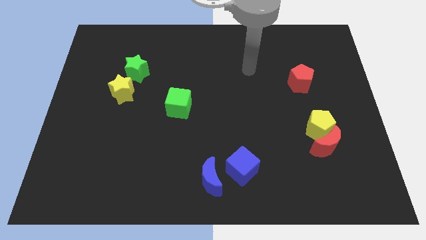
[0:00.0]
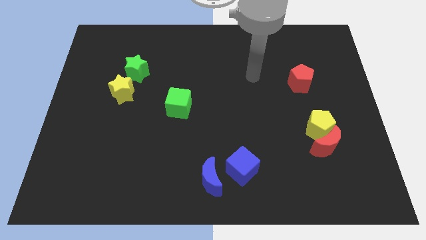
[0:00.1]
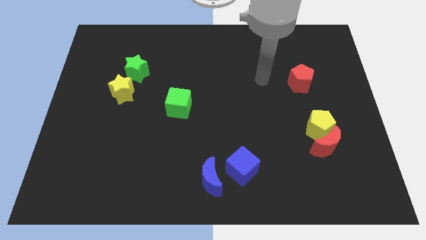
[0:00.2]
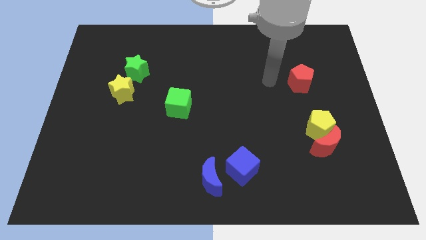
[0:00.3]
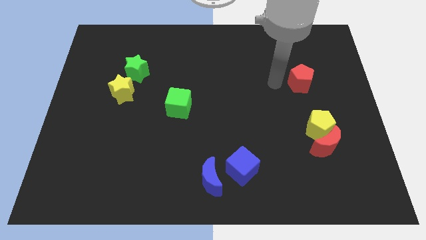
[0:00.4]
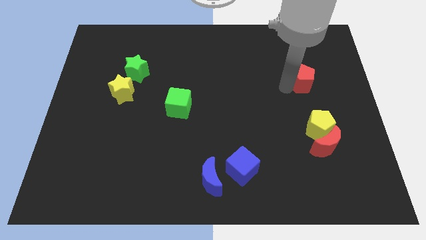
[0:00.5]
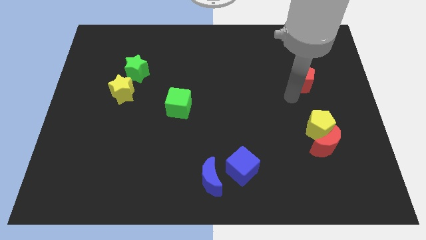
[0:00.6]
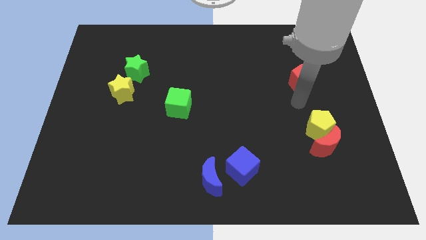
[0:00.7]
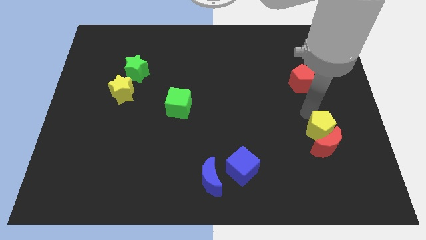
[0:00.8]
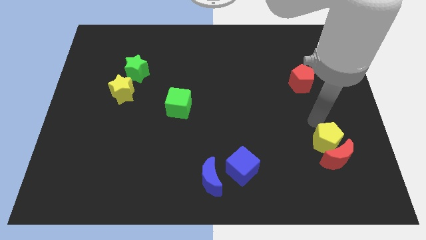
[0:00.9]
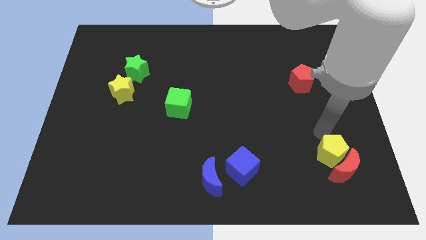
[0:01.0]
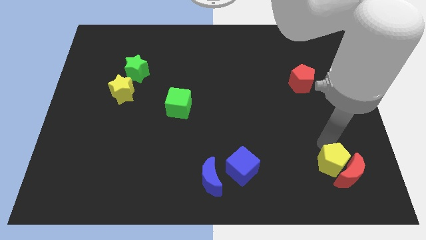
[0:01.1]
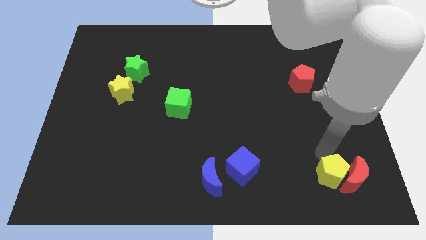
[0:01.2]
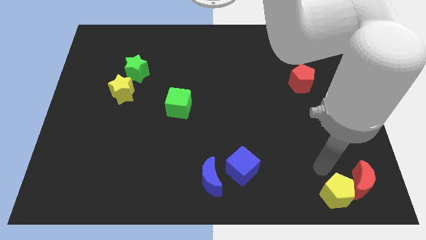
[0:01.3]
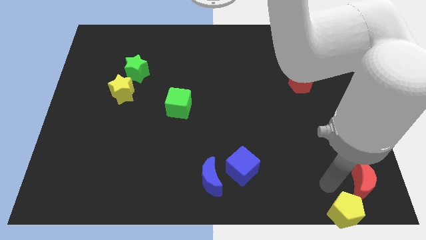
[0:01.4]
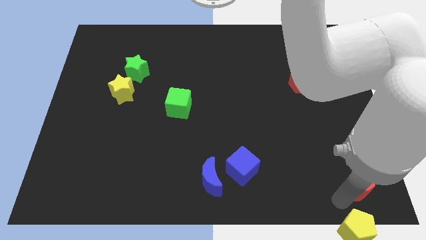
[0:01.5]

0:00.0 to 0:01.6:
separate the red moon from the yellow pentagon

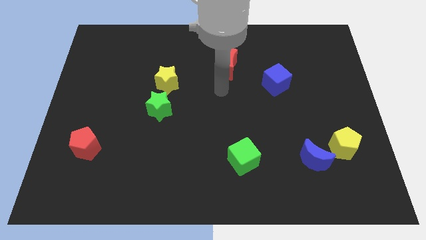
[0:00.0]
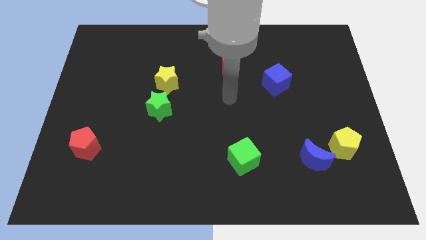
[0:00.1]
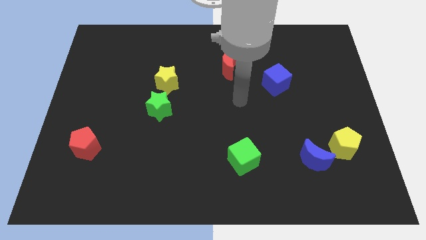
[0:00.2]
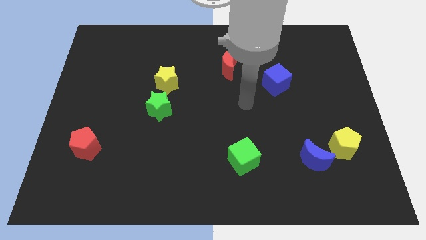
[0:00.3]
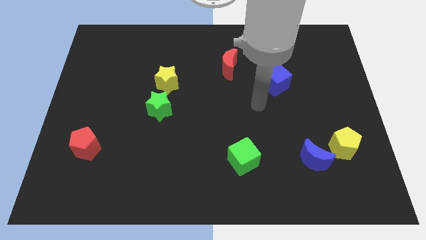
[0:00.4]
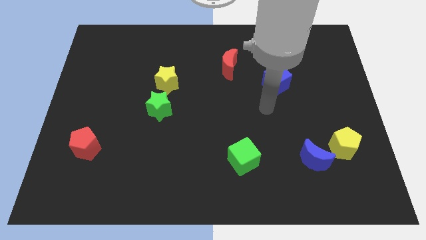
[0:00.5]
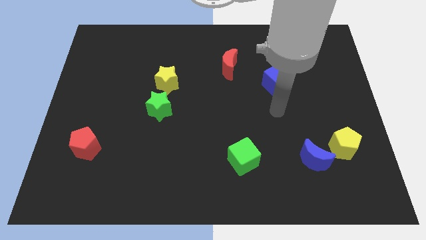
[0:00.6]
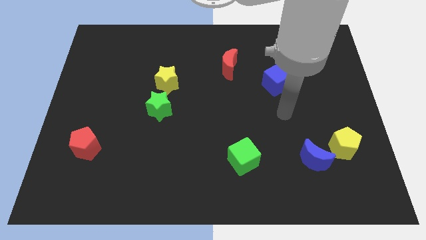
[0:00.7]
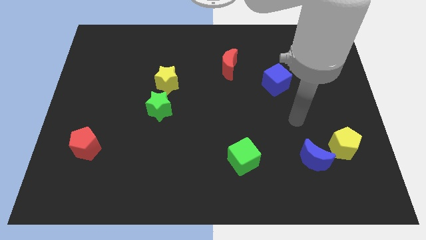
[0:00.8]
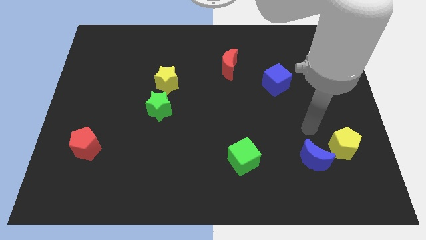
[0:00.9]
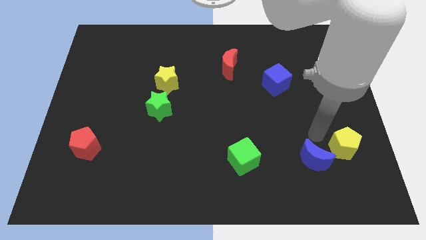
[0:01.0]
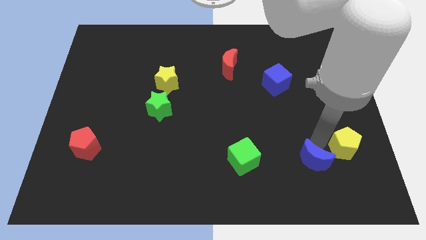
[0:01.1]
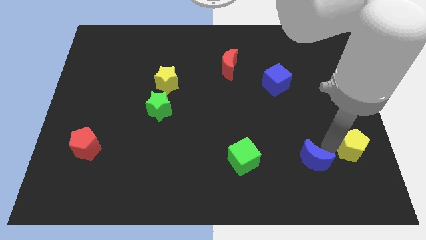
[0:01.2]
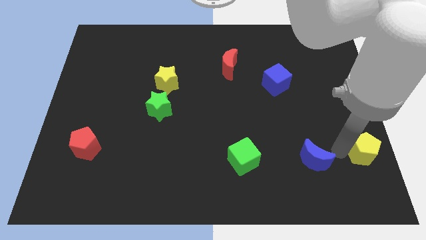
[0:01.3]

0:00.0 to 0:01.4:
separate the blue moon from the yellow pentagon

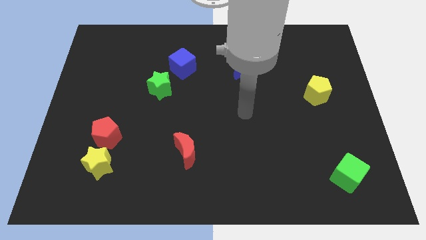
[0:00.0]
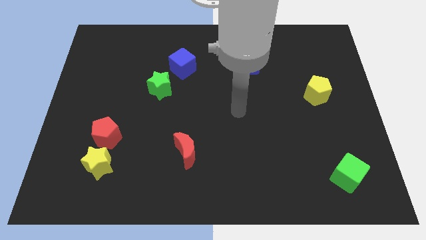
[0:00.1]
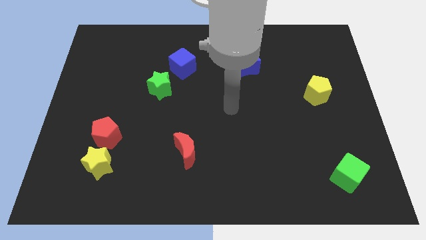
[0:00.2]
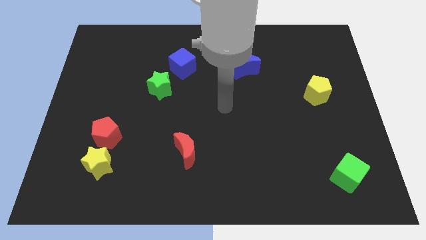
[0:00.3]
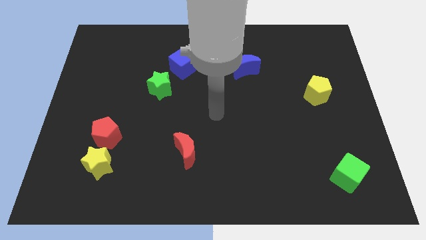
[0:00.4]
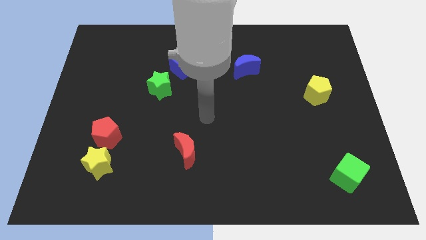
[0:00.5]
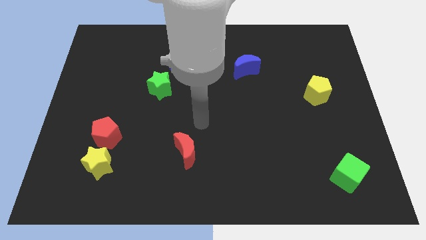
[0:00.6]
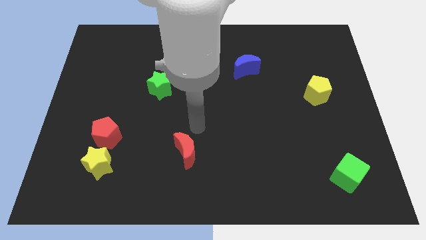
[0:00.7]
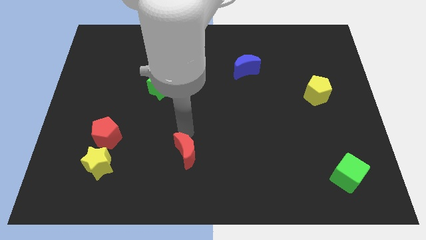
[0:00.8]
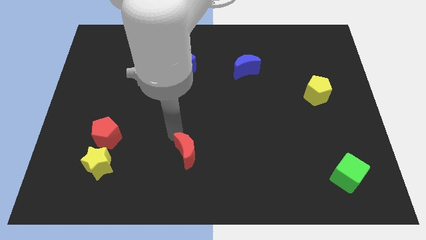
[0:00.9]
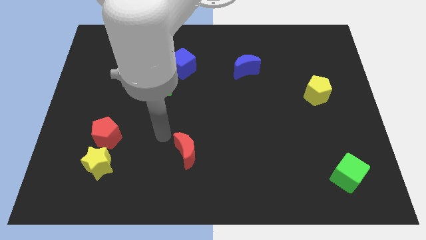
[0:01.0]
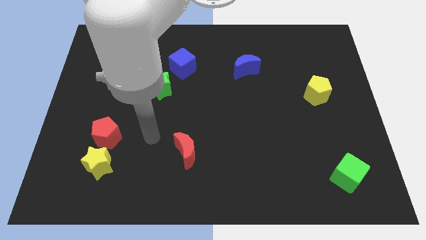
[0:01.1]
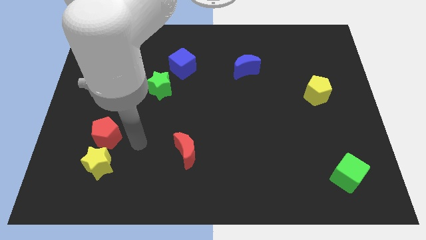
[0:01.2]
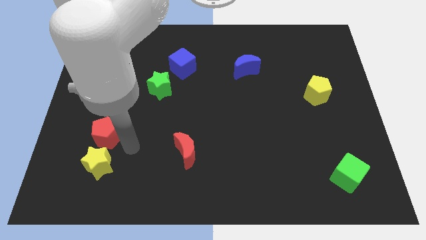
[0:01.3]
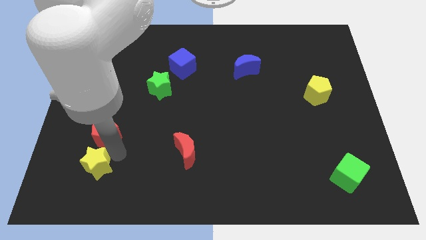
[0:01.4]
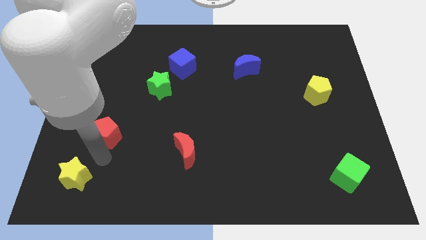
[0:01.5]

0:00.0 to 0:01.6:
pull the red pentagon apart from the yellow star

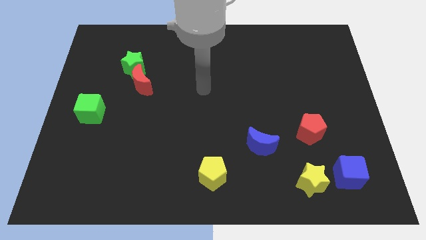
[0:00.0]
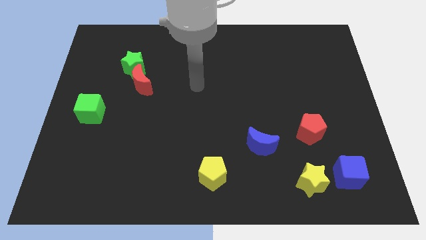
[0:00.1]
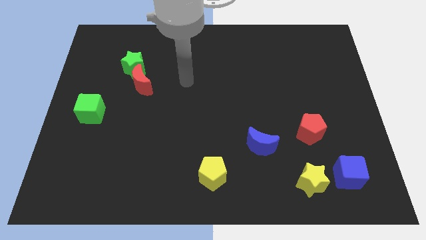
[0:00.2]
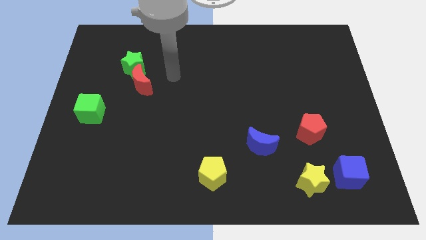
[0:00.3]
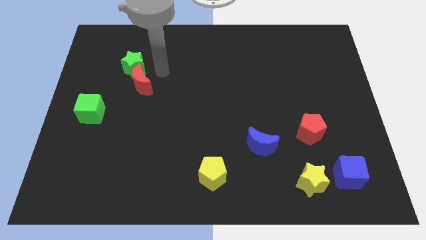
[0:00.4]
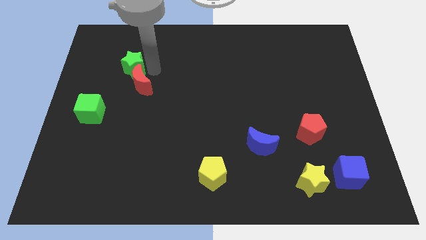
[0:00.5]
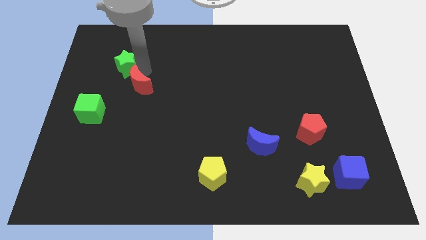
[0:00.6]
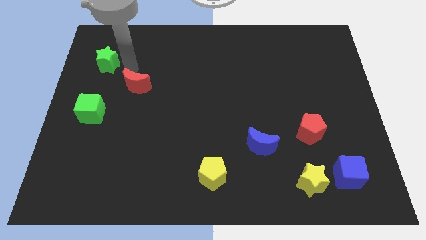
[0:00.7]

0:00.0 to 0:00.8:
separate the red moon from the green star

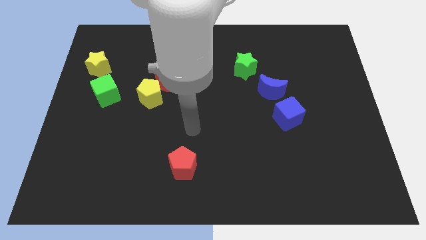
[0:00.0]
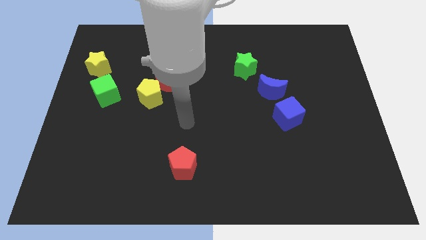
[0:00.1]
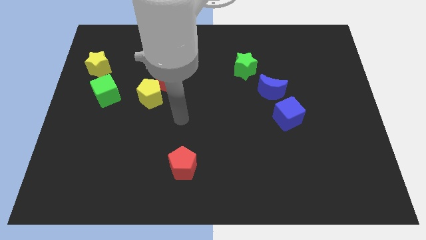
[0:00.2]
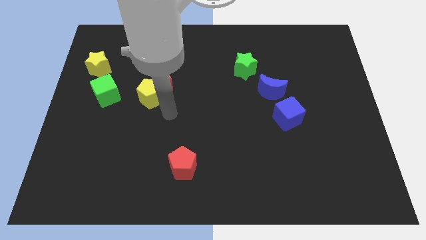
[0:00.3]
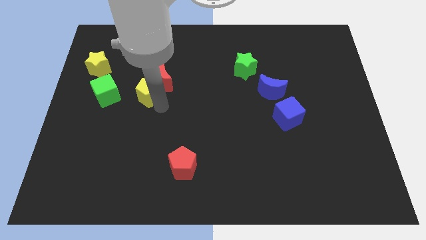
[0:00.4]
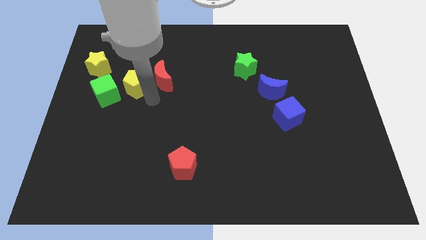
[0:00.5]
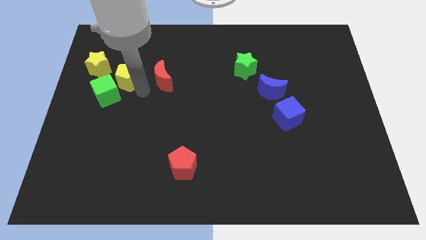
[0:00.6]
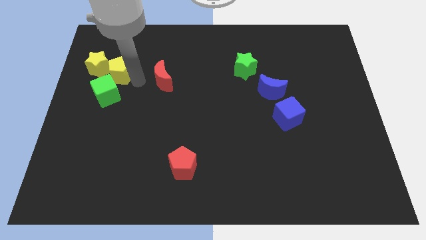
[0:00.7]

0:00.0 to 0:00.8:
move the red moon away from the yellow pentagon

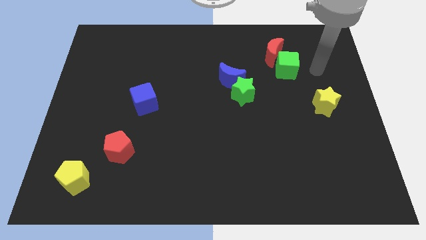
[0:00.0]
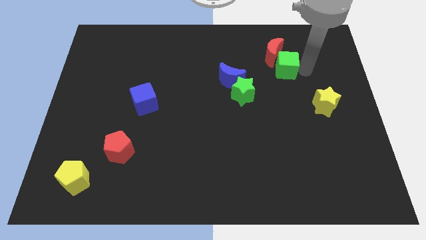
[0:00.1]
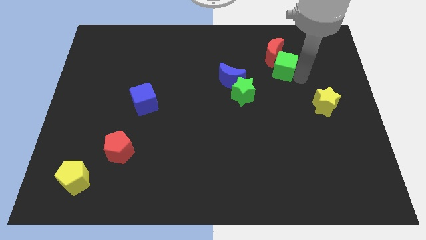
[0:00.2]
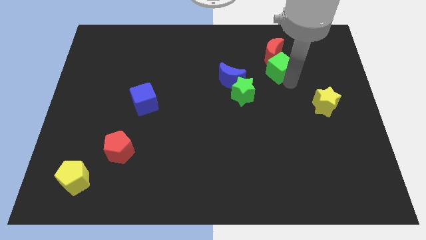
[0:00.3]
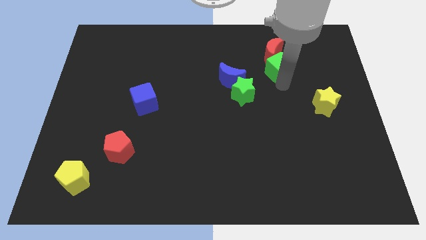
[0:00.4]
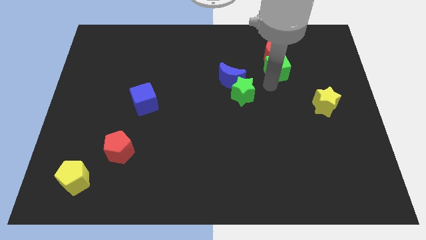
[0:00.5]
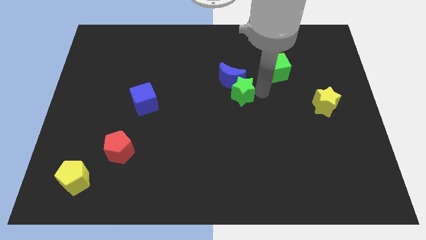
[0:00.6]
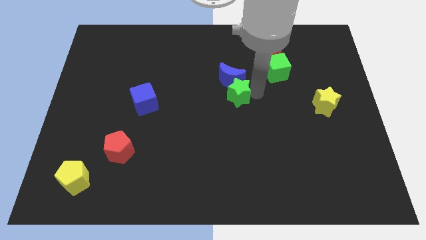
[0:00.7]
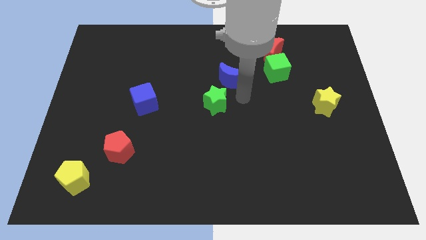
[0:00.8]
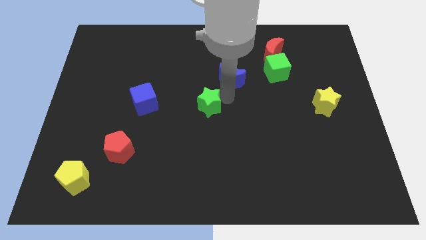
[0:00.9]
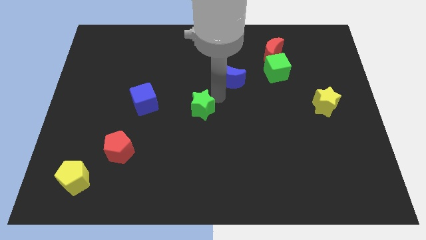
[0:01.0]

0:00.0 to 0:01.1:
separate the blue moon from the green star

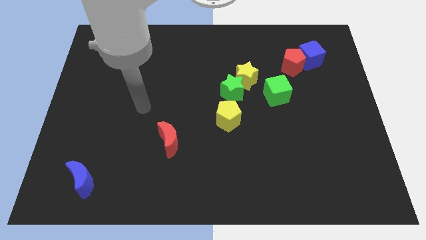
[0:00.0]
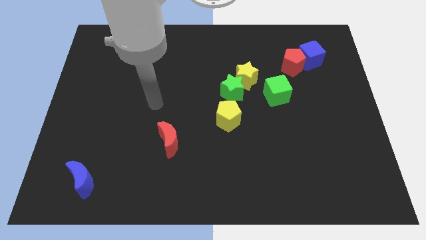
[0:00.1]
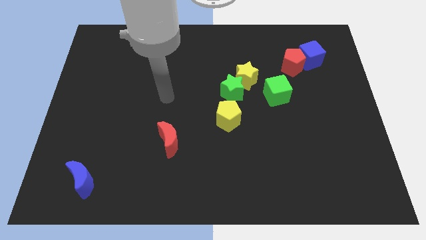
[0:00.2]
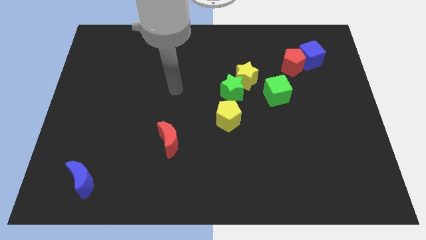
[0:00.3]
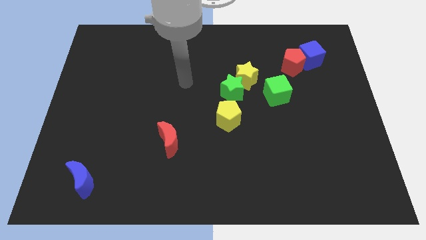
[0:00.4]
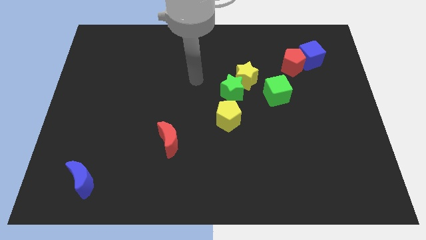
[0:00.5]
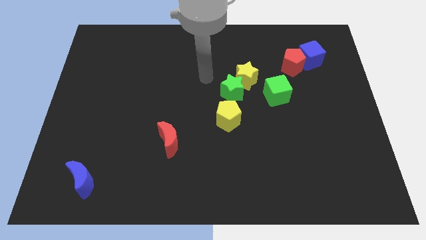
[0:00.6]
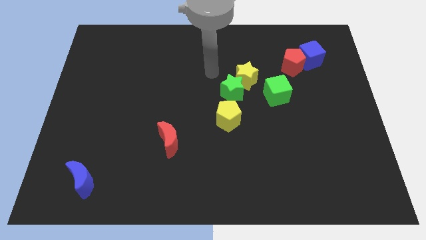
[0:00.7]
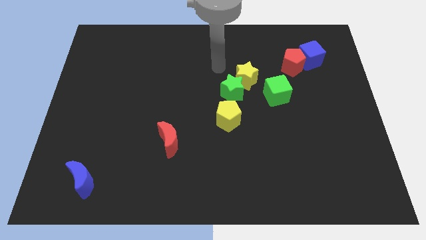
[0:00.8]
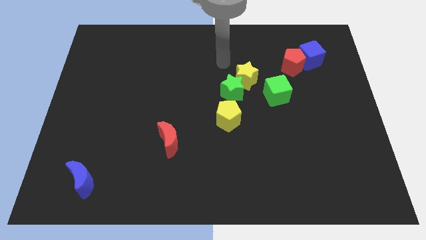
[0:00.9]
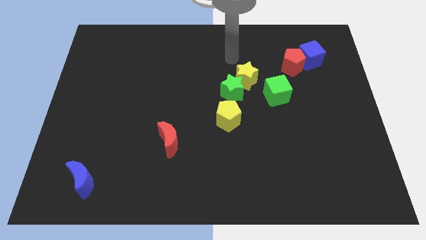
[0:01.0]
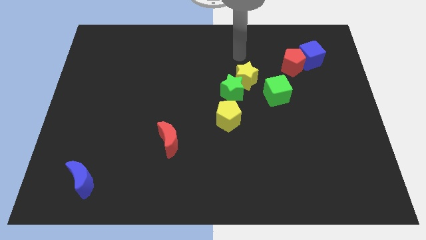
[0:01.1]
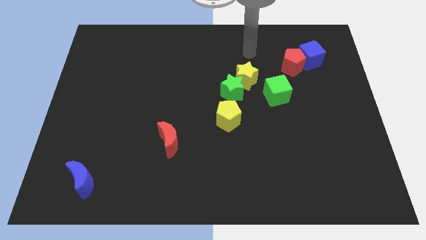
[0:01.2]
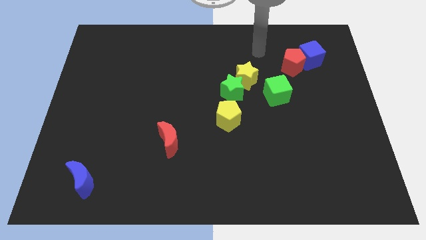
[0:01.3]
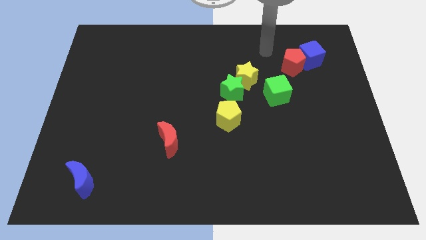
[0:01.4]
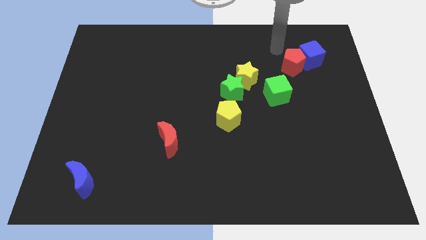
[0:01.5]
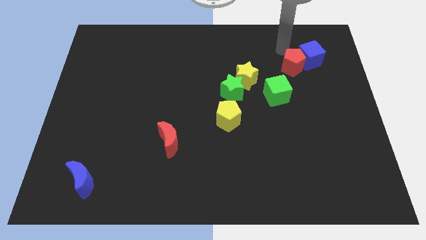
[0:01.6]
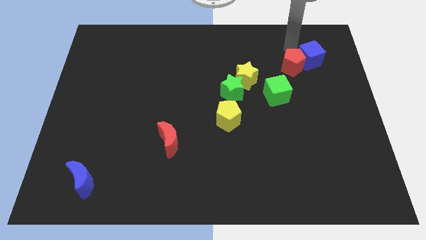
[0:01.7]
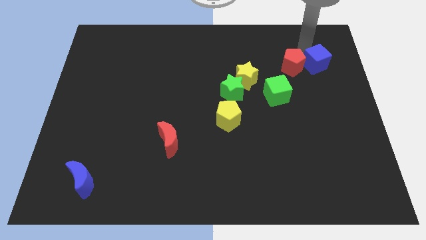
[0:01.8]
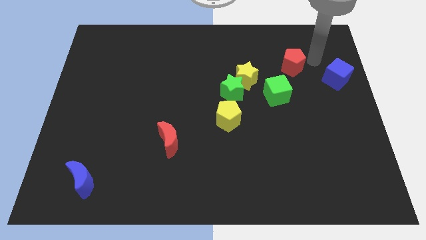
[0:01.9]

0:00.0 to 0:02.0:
separate the red pentagon from the blue cube
